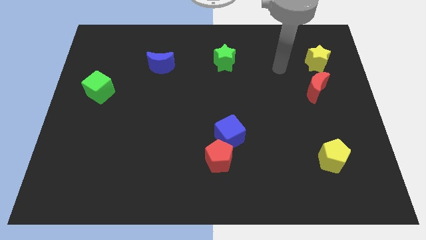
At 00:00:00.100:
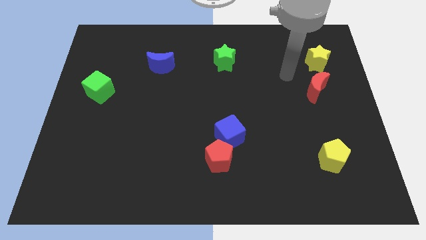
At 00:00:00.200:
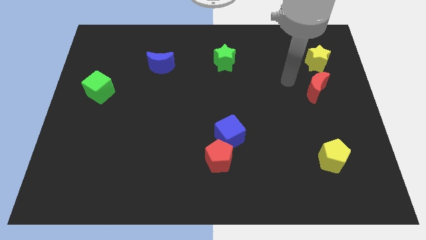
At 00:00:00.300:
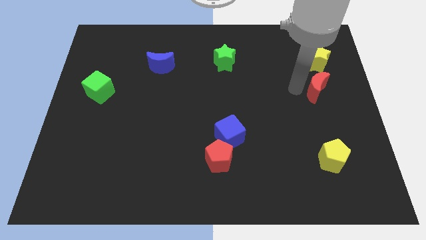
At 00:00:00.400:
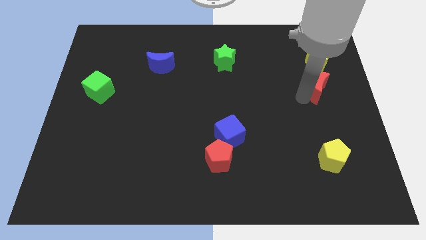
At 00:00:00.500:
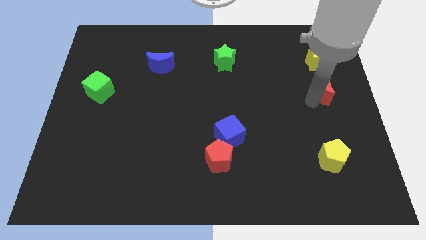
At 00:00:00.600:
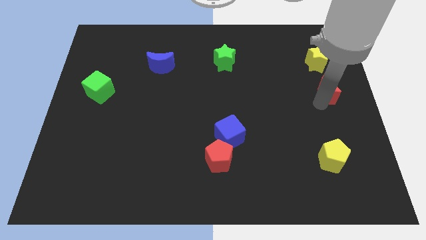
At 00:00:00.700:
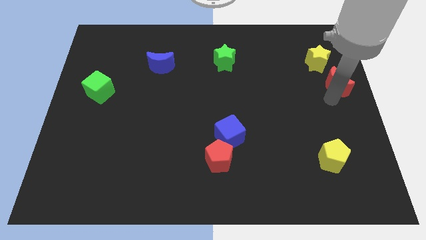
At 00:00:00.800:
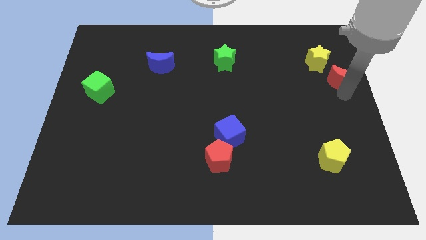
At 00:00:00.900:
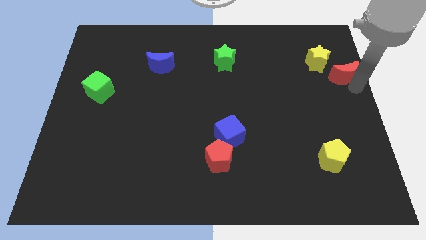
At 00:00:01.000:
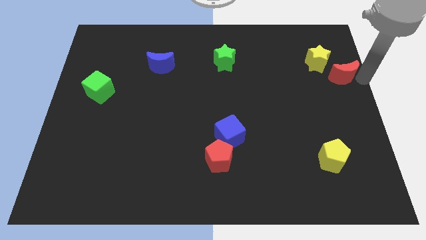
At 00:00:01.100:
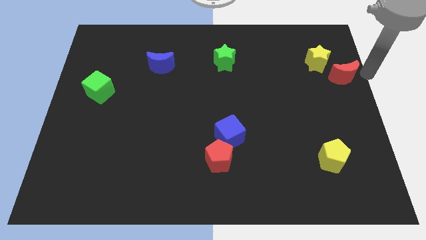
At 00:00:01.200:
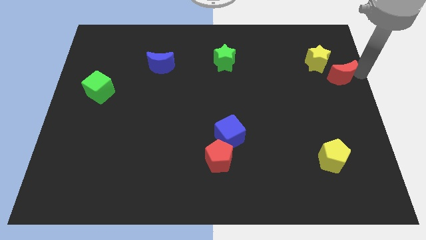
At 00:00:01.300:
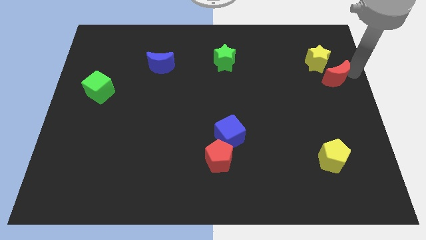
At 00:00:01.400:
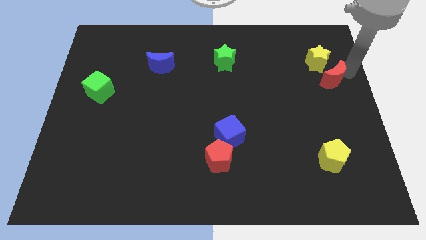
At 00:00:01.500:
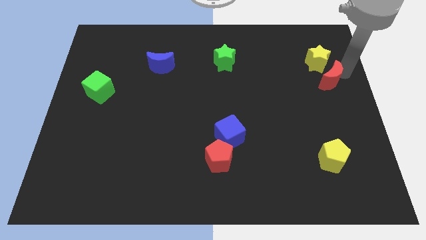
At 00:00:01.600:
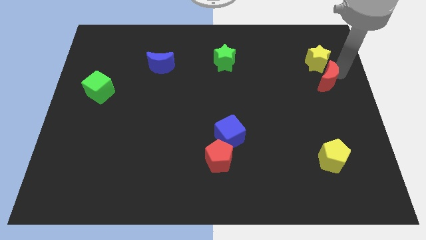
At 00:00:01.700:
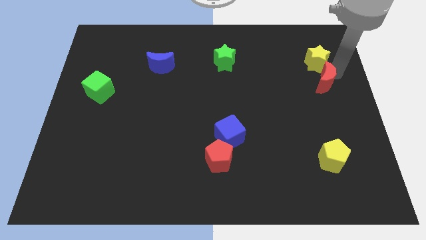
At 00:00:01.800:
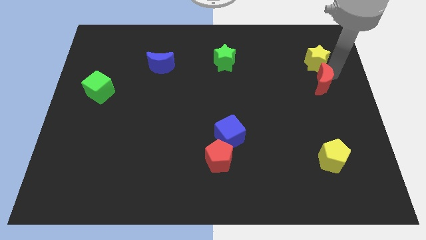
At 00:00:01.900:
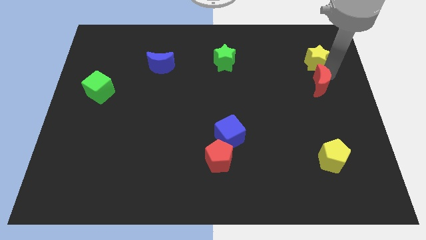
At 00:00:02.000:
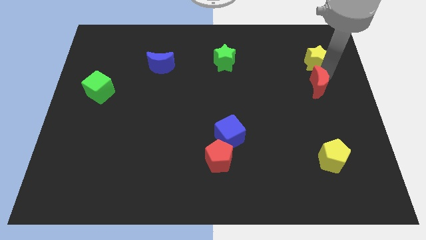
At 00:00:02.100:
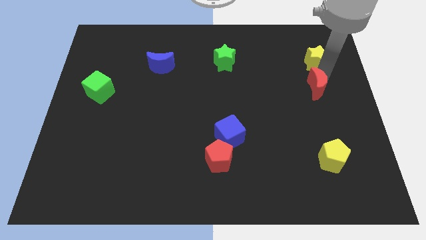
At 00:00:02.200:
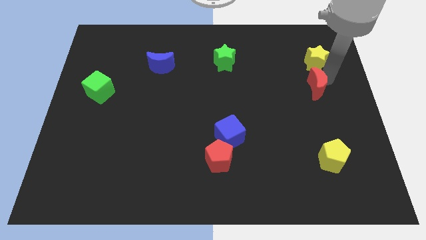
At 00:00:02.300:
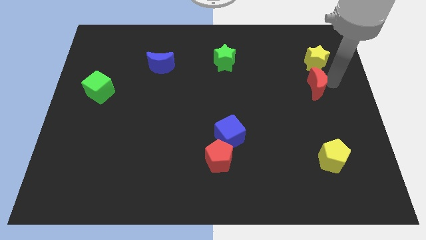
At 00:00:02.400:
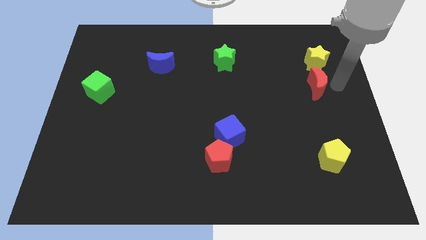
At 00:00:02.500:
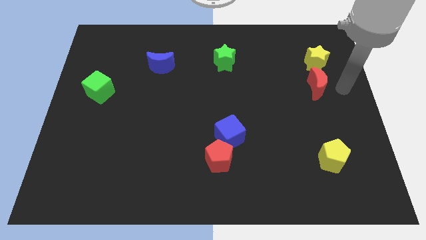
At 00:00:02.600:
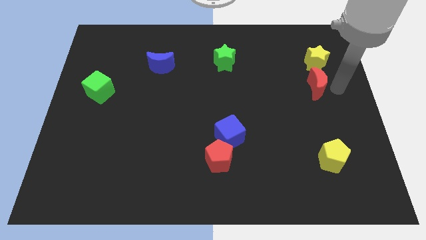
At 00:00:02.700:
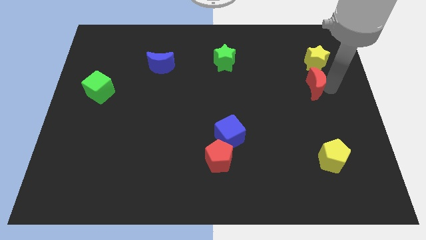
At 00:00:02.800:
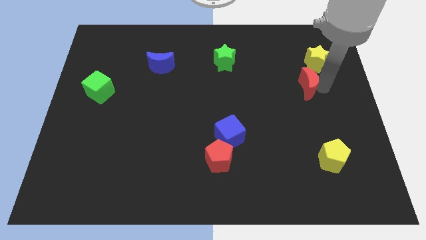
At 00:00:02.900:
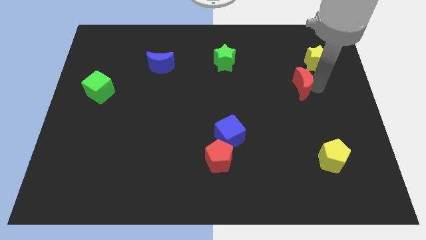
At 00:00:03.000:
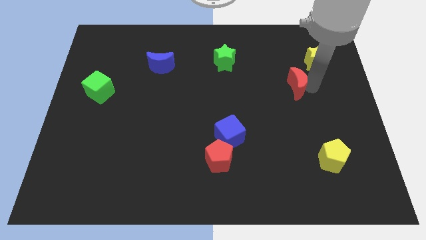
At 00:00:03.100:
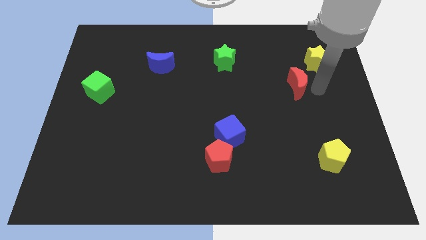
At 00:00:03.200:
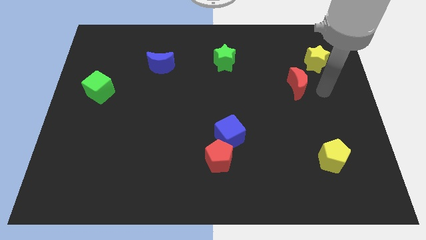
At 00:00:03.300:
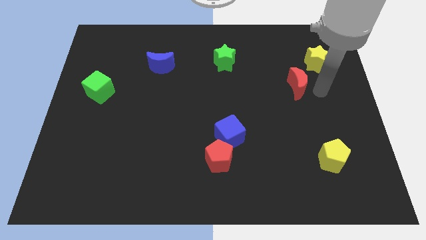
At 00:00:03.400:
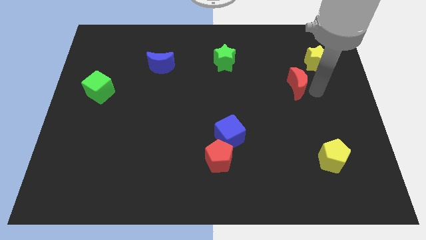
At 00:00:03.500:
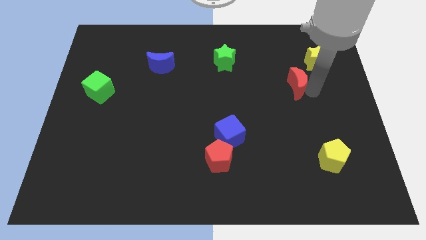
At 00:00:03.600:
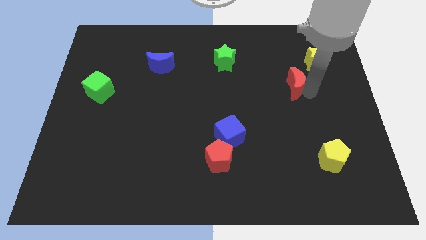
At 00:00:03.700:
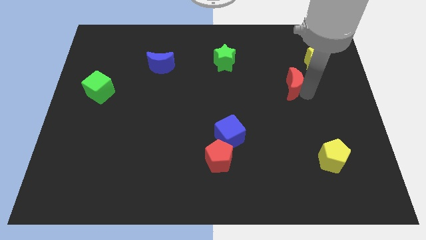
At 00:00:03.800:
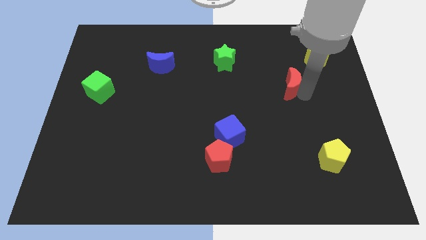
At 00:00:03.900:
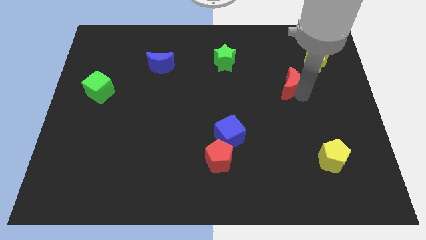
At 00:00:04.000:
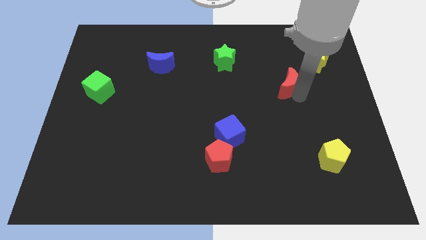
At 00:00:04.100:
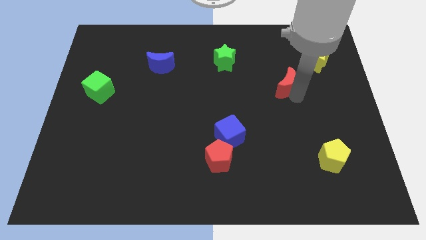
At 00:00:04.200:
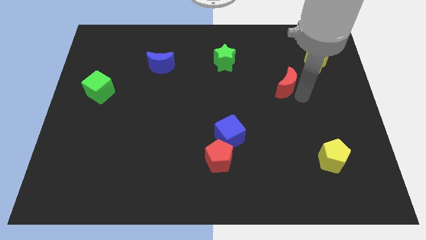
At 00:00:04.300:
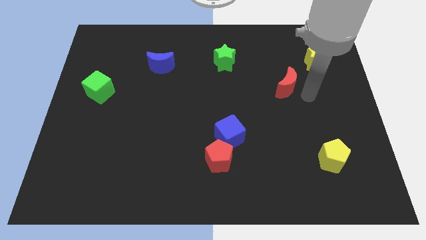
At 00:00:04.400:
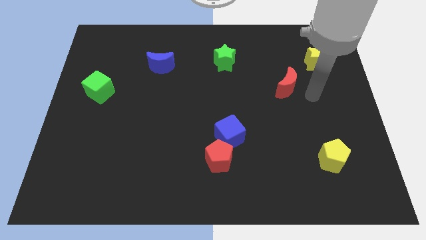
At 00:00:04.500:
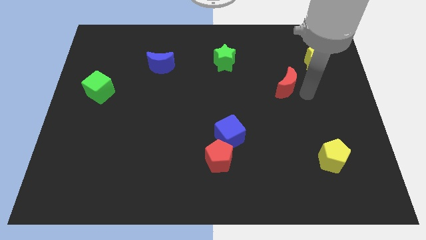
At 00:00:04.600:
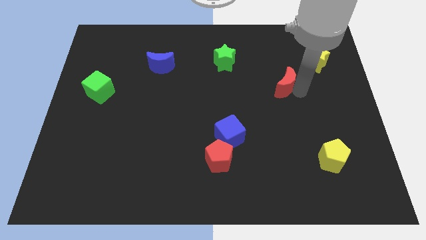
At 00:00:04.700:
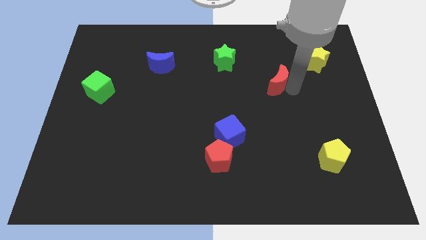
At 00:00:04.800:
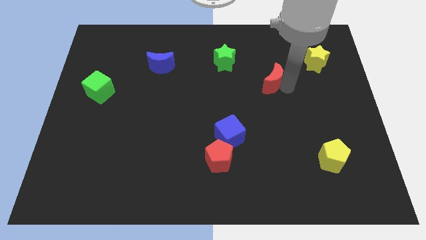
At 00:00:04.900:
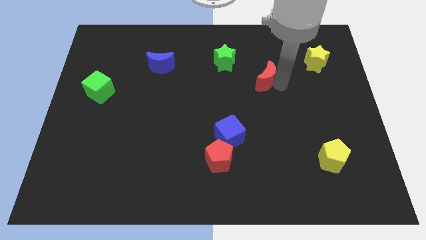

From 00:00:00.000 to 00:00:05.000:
push the red moon diagonally down and to the right of the green star

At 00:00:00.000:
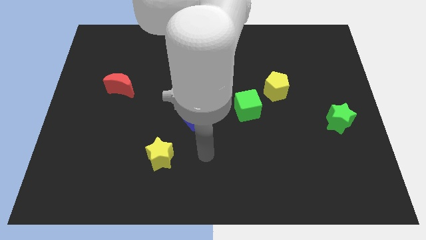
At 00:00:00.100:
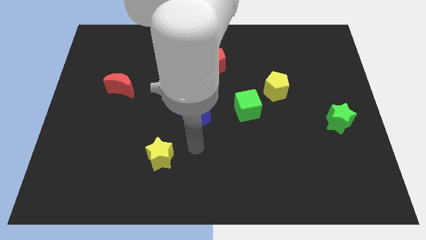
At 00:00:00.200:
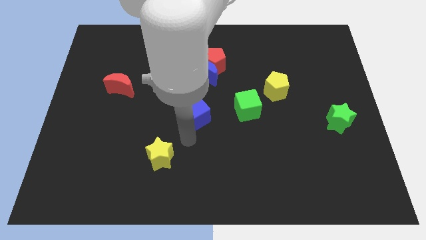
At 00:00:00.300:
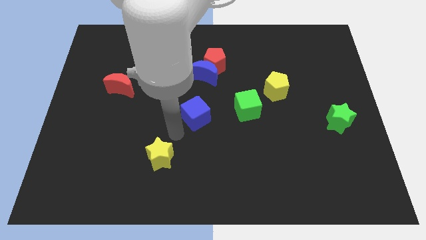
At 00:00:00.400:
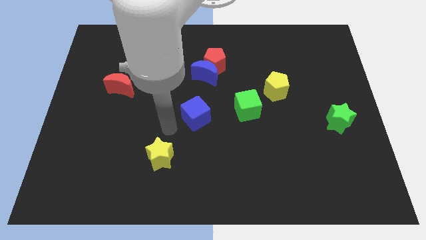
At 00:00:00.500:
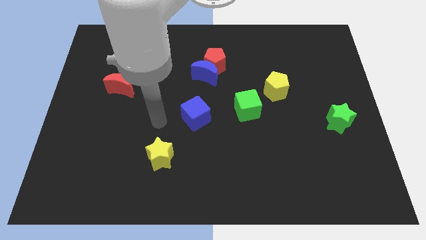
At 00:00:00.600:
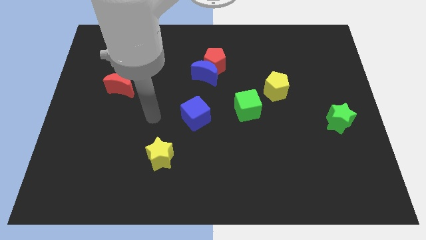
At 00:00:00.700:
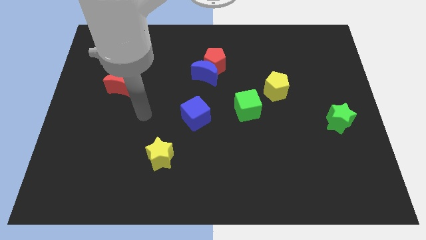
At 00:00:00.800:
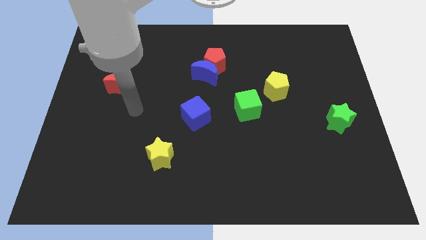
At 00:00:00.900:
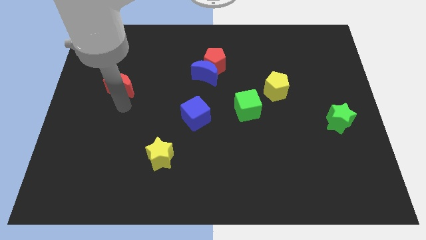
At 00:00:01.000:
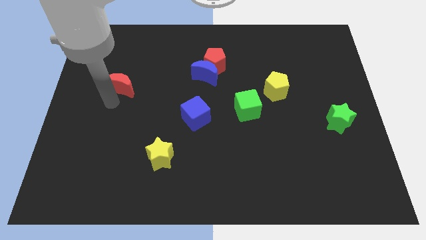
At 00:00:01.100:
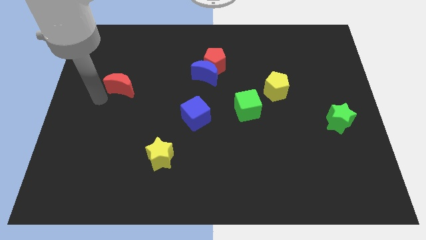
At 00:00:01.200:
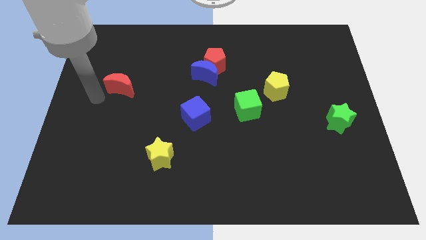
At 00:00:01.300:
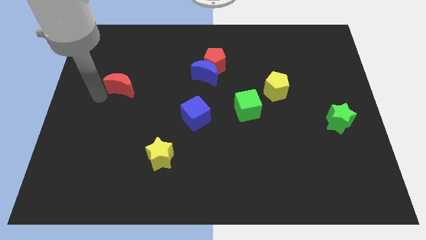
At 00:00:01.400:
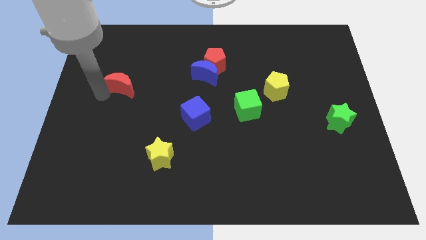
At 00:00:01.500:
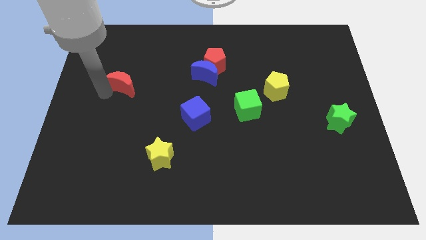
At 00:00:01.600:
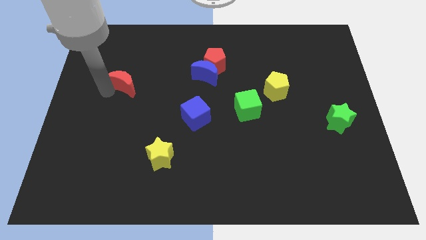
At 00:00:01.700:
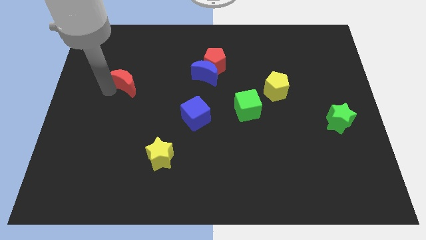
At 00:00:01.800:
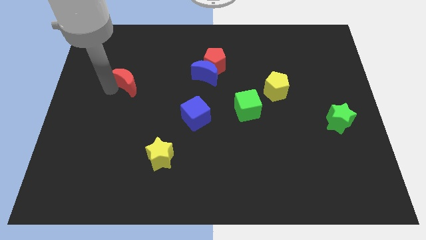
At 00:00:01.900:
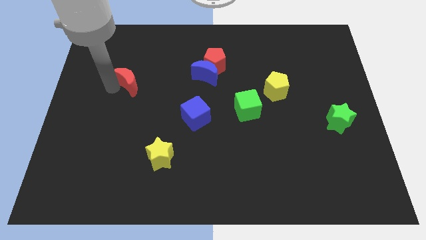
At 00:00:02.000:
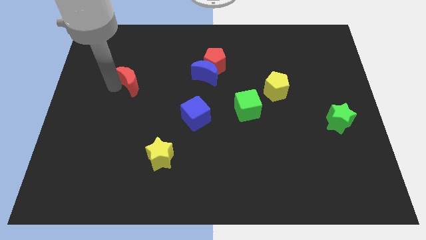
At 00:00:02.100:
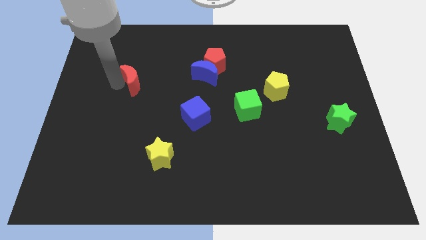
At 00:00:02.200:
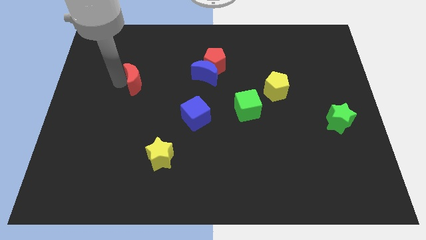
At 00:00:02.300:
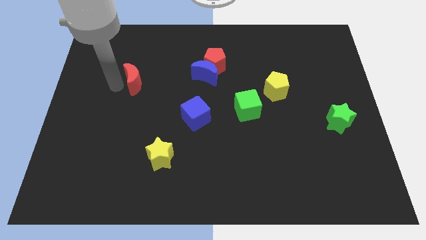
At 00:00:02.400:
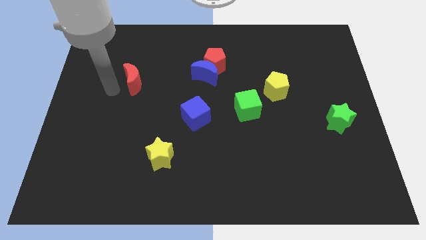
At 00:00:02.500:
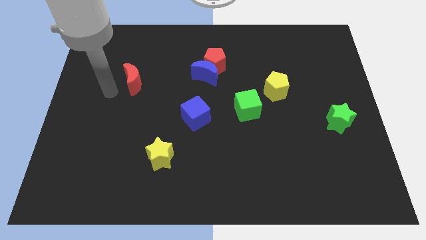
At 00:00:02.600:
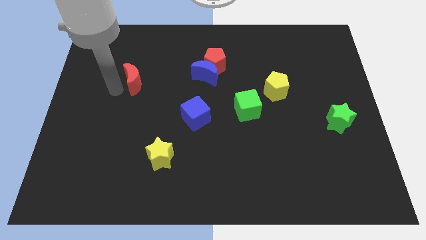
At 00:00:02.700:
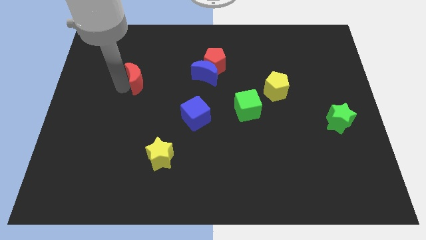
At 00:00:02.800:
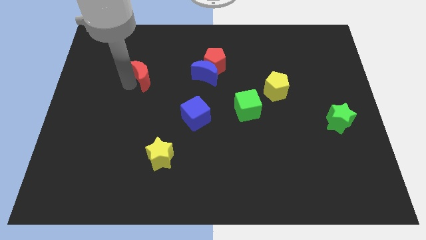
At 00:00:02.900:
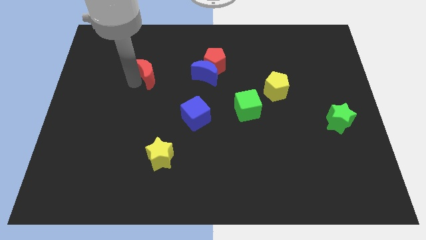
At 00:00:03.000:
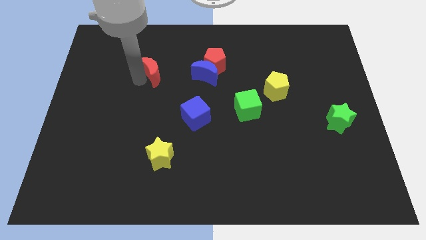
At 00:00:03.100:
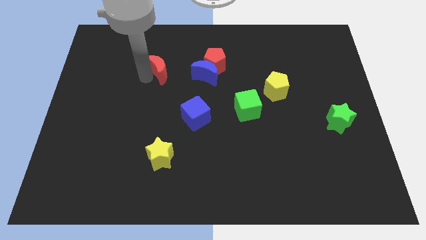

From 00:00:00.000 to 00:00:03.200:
push the red moon to the left side of the red pentagon
